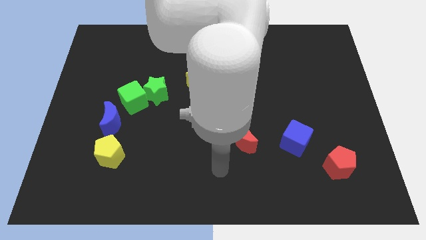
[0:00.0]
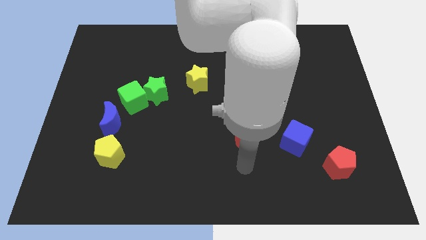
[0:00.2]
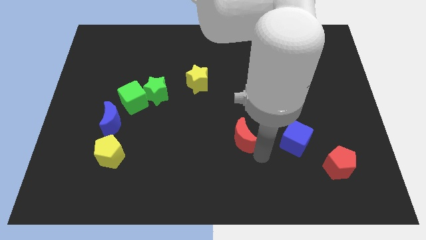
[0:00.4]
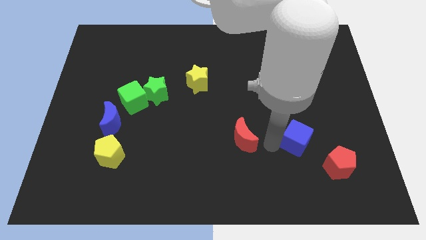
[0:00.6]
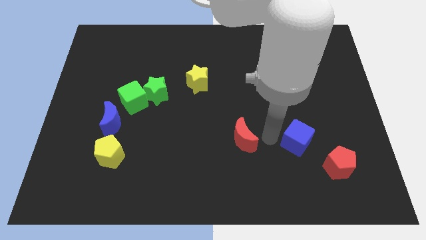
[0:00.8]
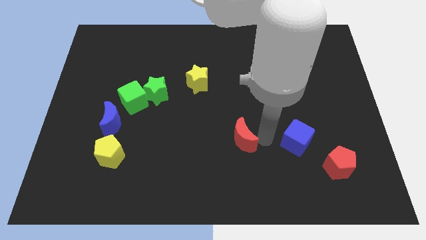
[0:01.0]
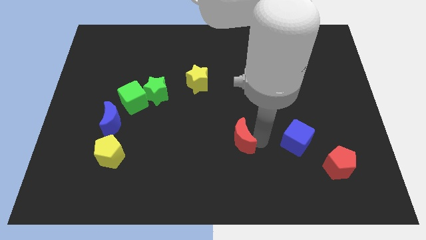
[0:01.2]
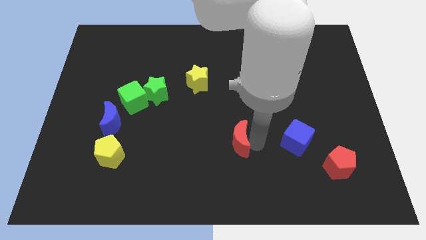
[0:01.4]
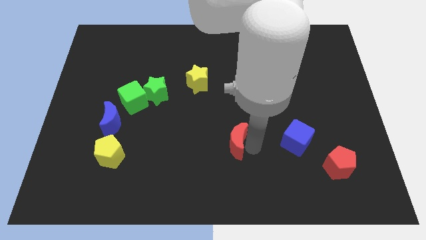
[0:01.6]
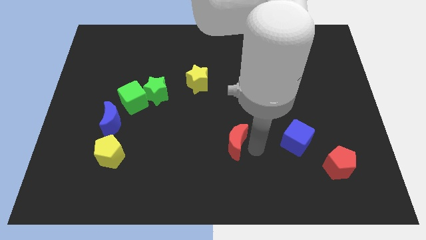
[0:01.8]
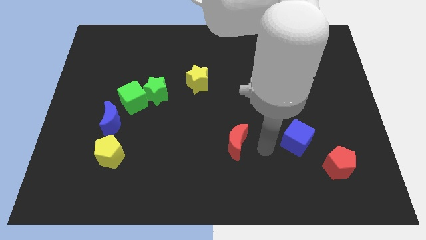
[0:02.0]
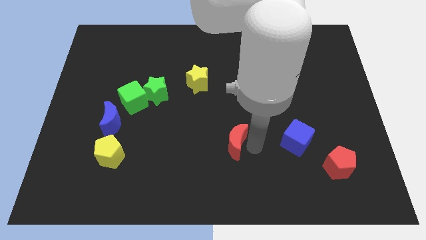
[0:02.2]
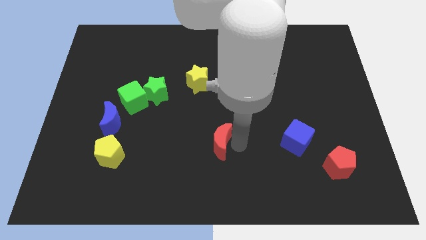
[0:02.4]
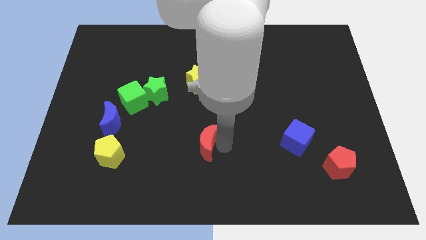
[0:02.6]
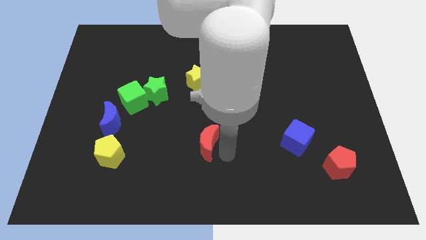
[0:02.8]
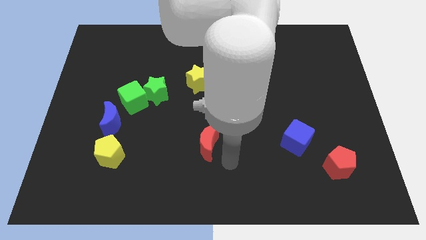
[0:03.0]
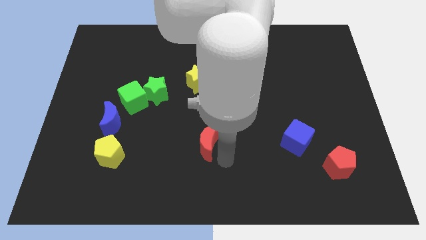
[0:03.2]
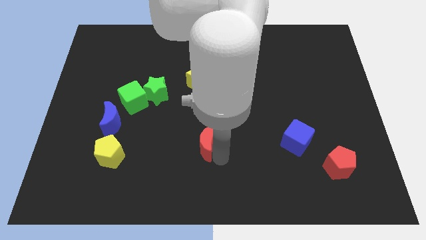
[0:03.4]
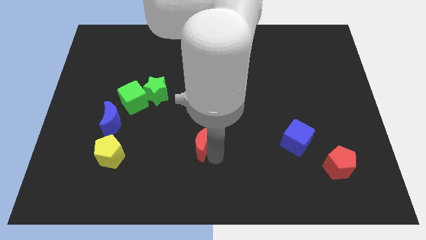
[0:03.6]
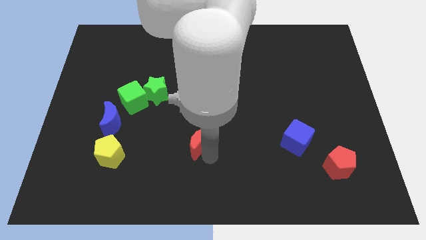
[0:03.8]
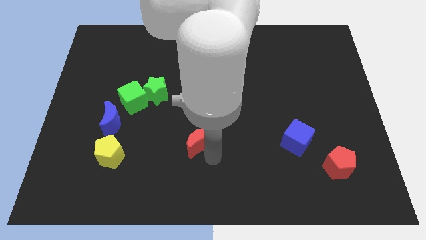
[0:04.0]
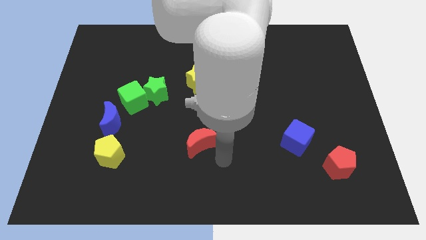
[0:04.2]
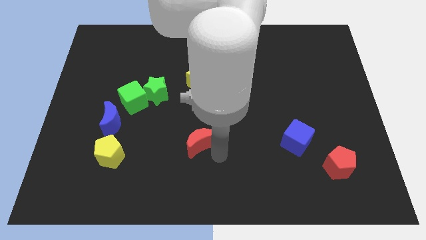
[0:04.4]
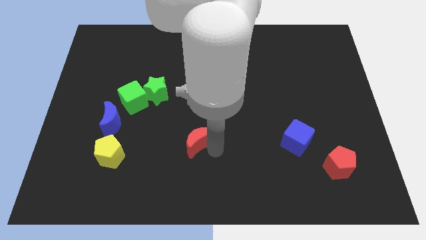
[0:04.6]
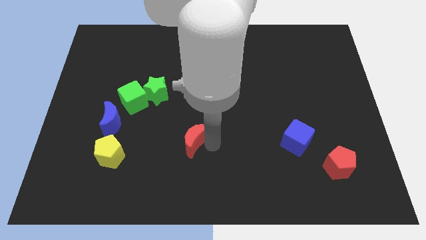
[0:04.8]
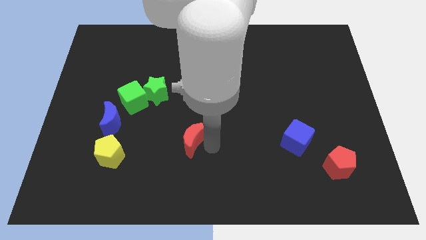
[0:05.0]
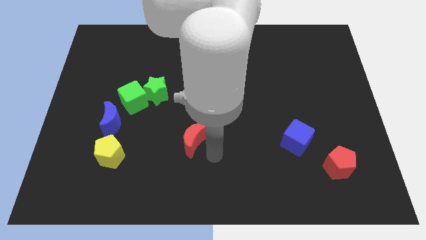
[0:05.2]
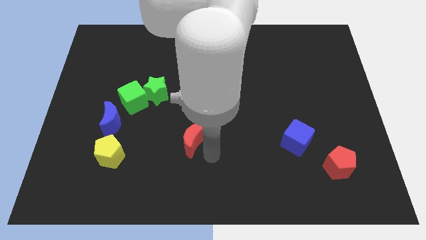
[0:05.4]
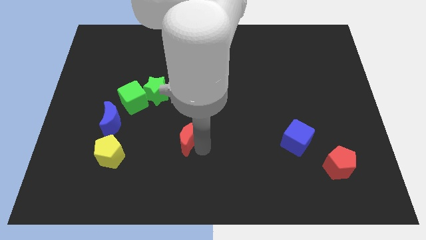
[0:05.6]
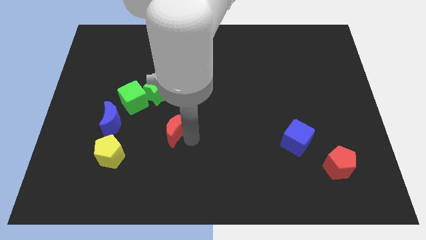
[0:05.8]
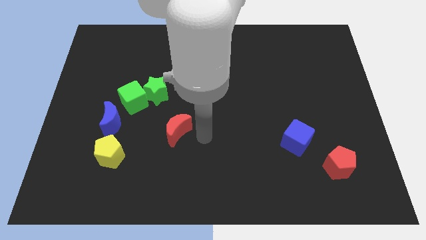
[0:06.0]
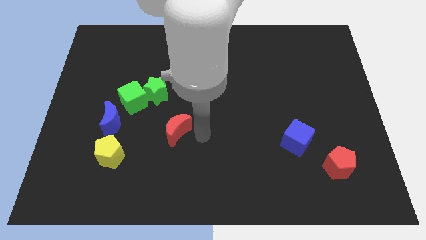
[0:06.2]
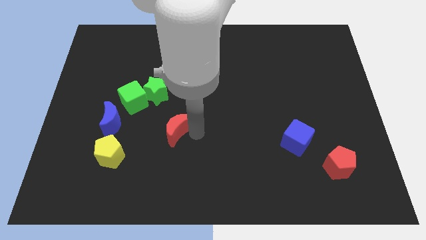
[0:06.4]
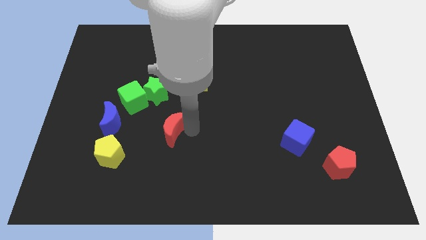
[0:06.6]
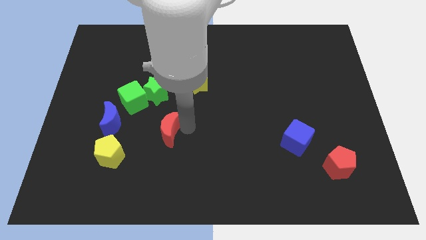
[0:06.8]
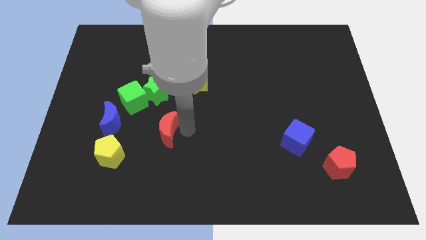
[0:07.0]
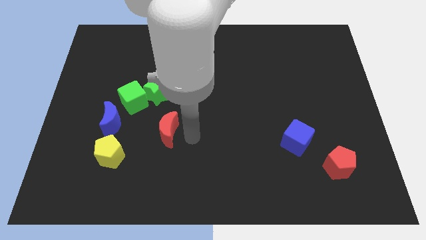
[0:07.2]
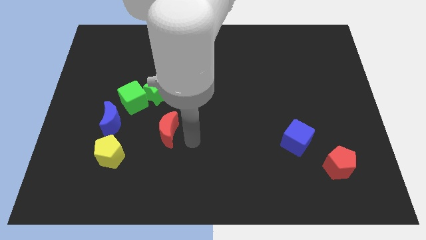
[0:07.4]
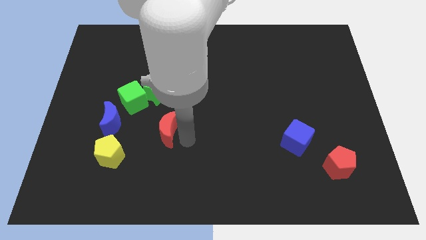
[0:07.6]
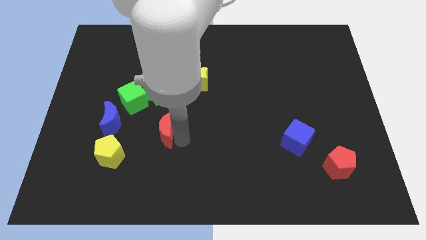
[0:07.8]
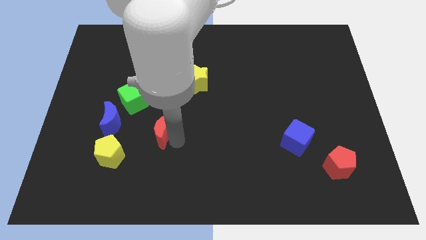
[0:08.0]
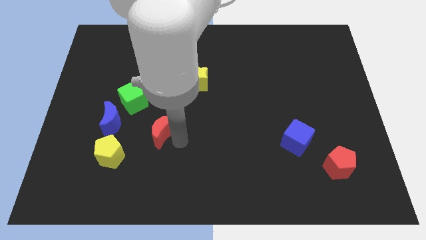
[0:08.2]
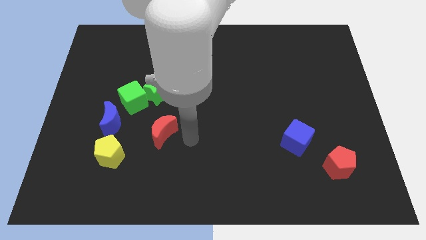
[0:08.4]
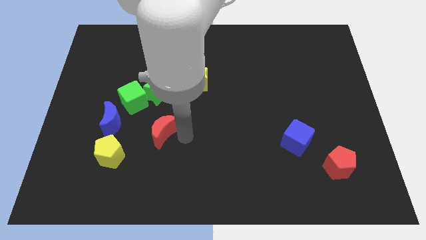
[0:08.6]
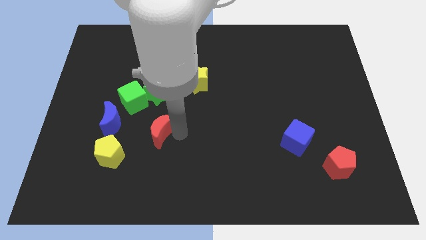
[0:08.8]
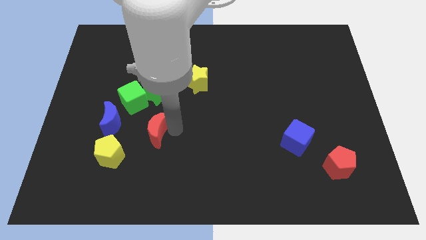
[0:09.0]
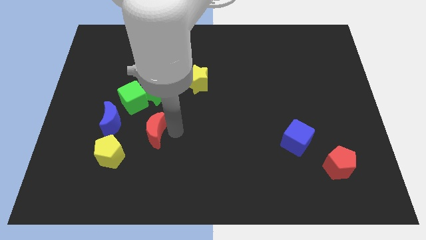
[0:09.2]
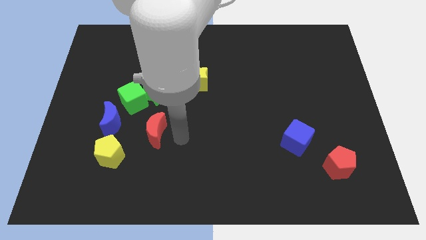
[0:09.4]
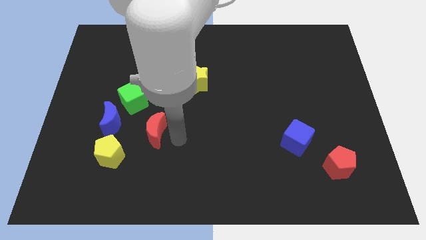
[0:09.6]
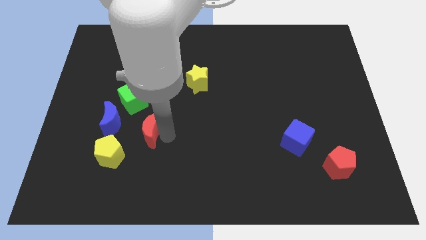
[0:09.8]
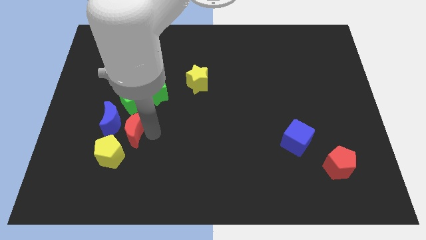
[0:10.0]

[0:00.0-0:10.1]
slide the red moon close to the blue moon

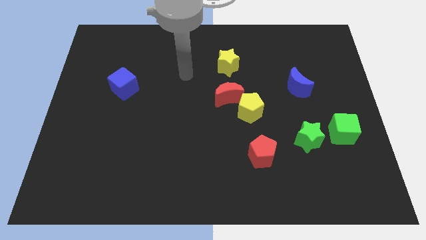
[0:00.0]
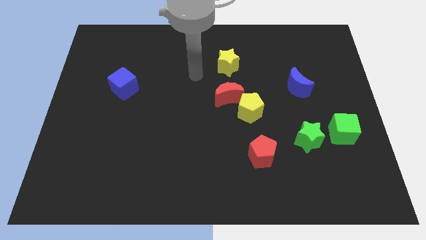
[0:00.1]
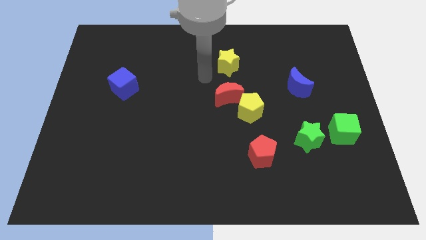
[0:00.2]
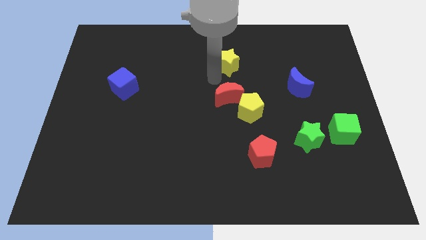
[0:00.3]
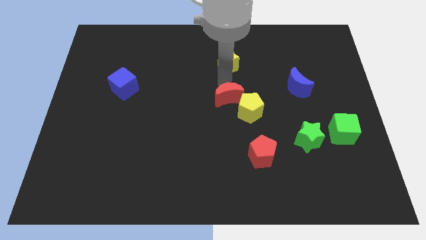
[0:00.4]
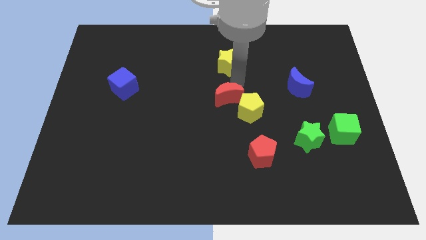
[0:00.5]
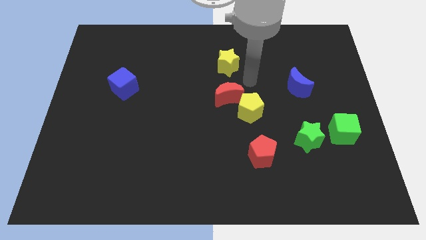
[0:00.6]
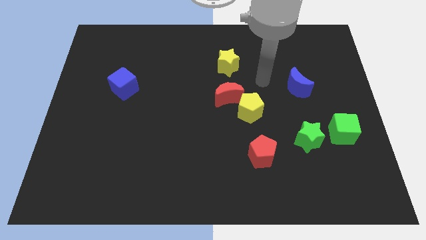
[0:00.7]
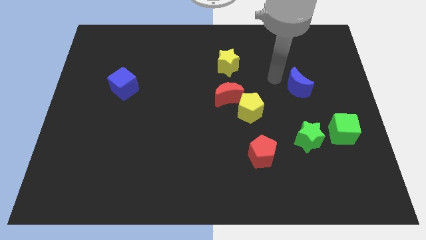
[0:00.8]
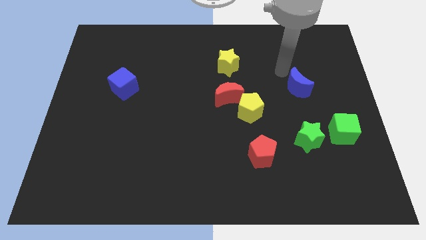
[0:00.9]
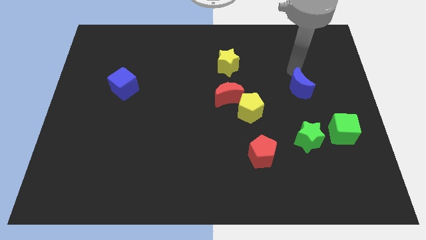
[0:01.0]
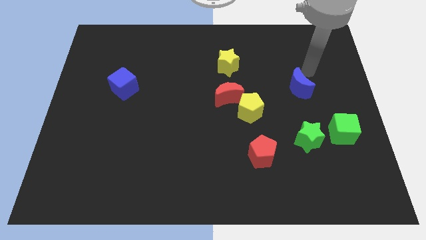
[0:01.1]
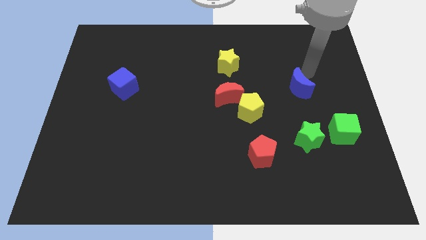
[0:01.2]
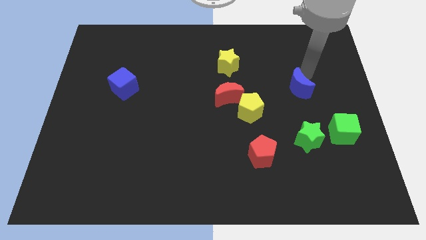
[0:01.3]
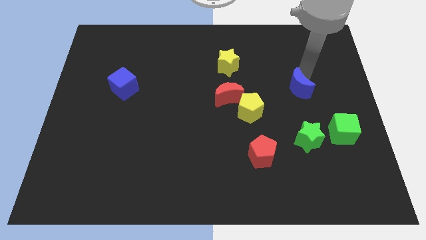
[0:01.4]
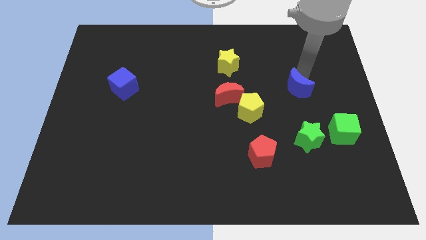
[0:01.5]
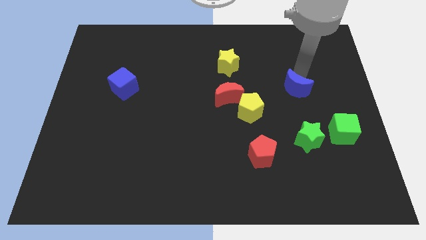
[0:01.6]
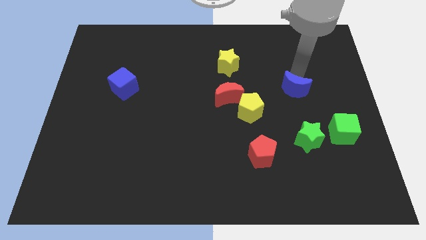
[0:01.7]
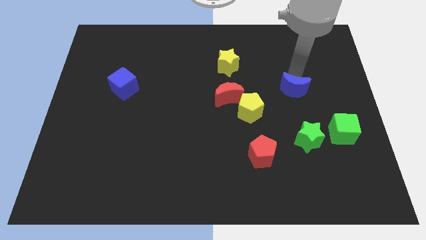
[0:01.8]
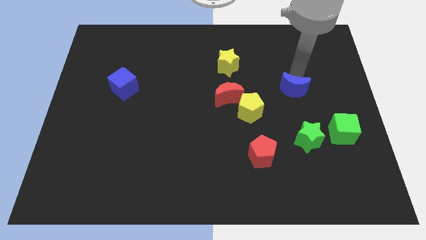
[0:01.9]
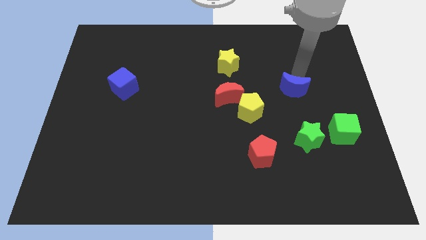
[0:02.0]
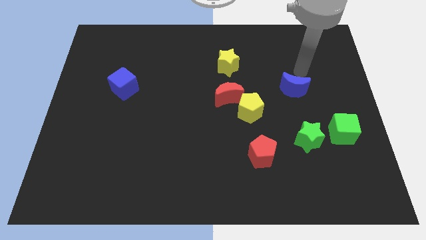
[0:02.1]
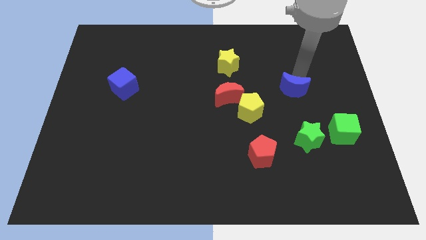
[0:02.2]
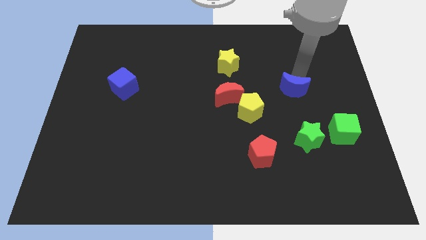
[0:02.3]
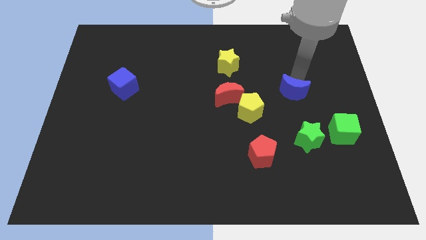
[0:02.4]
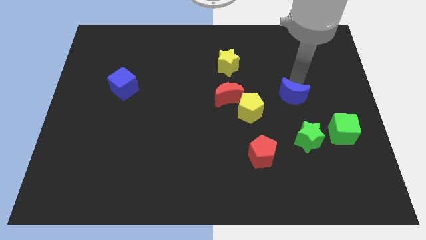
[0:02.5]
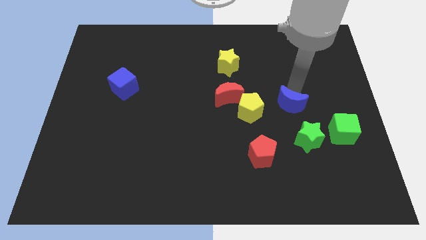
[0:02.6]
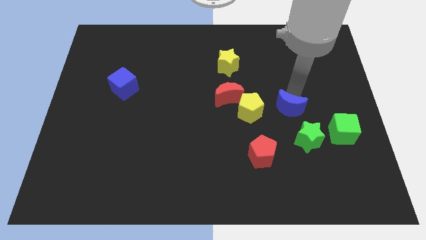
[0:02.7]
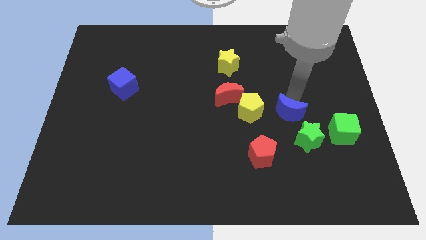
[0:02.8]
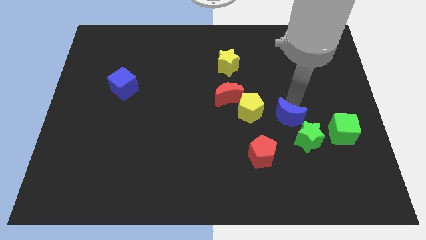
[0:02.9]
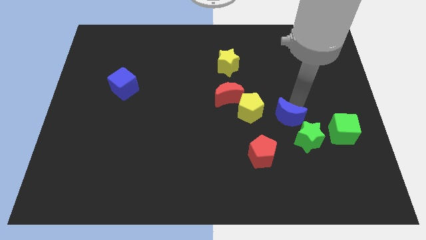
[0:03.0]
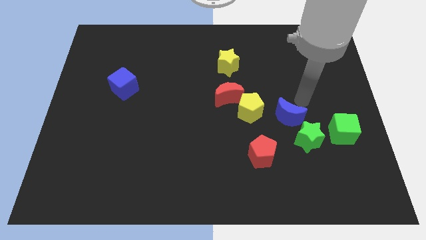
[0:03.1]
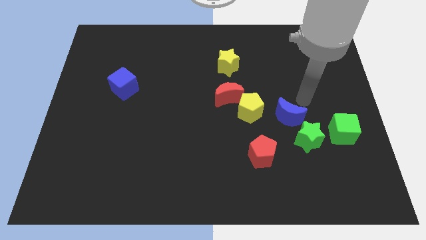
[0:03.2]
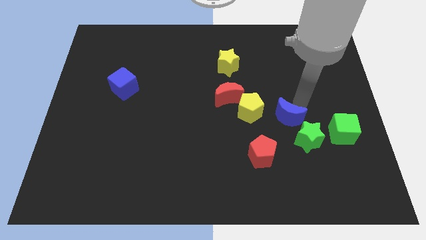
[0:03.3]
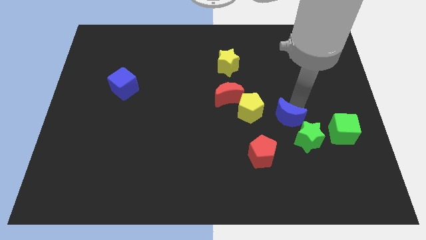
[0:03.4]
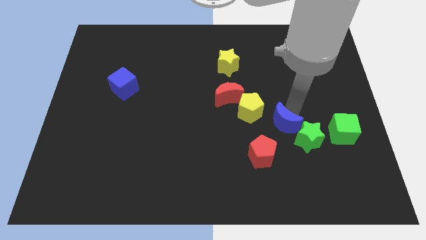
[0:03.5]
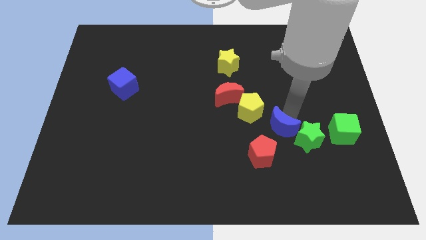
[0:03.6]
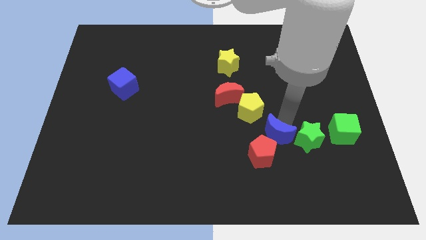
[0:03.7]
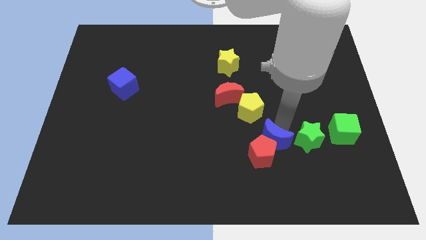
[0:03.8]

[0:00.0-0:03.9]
push the blue moon towards the red pentagon
